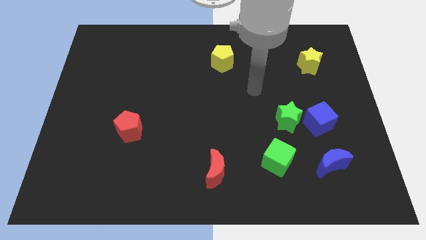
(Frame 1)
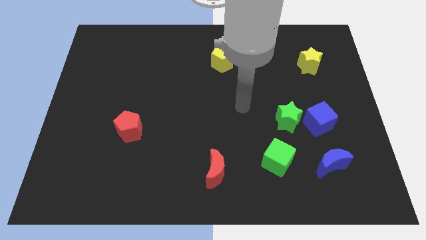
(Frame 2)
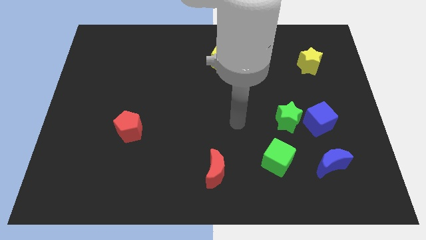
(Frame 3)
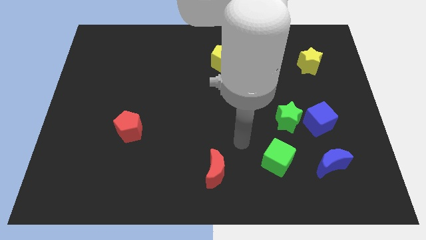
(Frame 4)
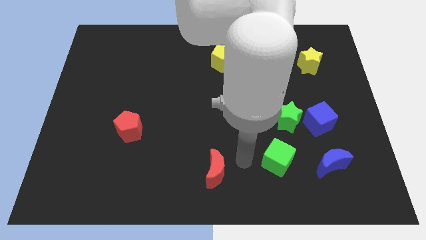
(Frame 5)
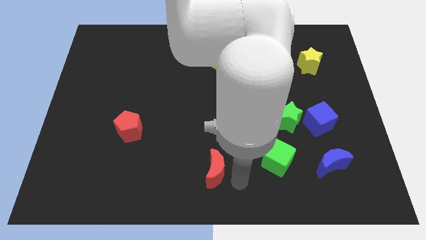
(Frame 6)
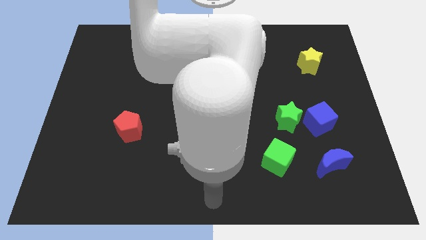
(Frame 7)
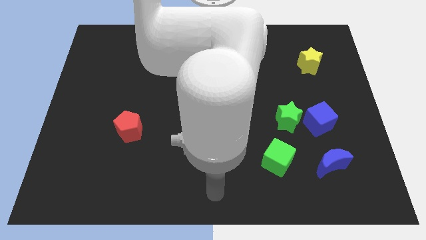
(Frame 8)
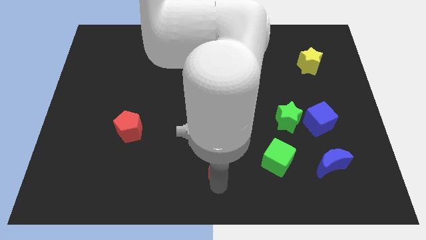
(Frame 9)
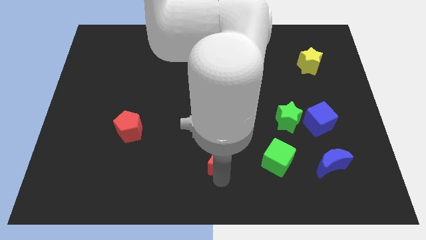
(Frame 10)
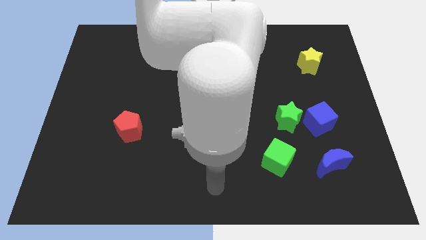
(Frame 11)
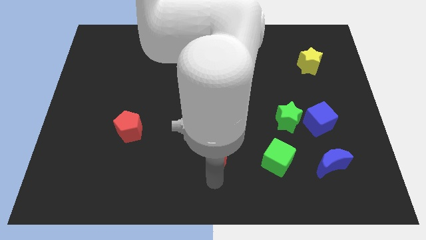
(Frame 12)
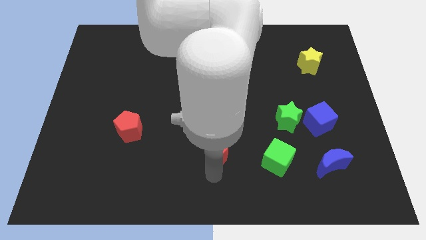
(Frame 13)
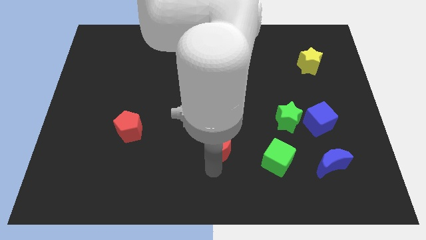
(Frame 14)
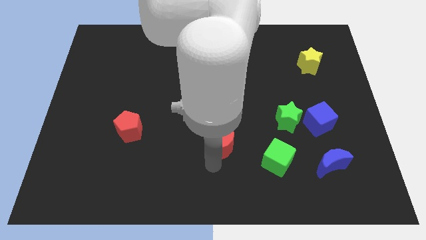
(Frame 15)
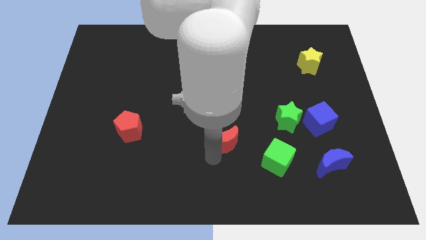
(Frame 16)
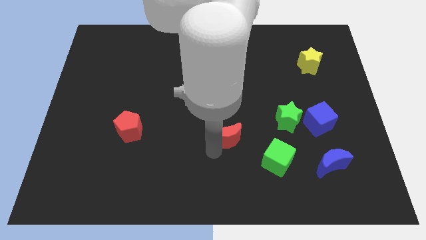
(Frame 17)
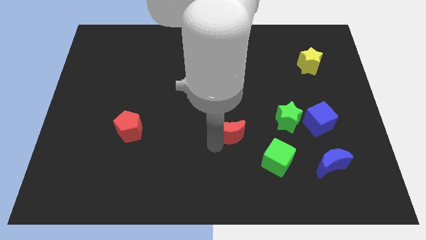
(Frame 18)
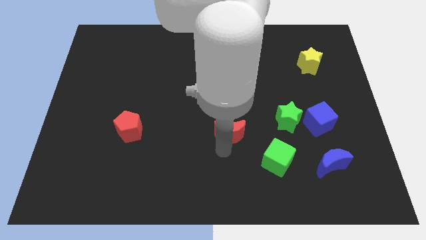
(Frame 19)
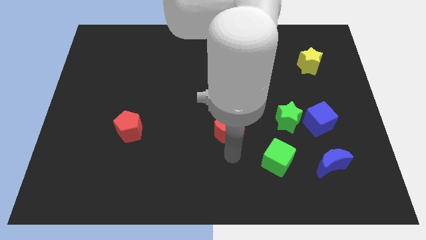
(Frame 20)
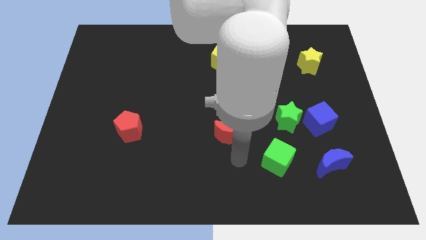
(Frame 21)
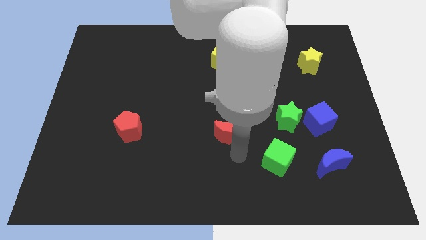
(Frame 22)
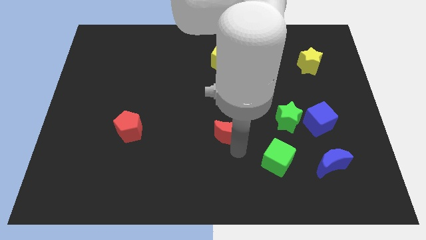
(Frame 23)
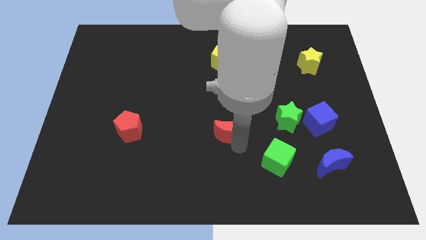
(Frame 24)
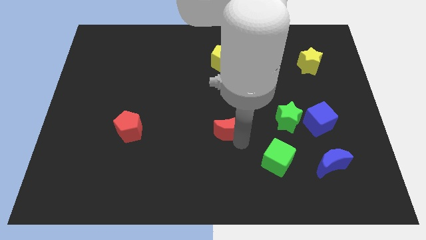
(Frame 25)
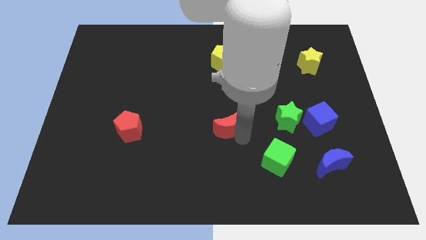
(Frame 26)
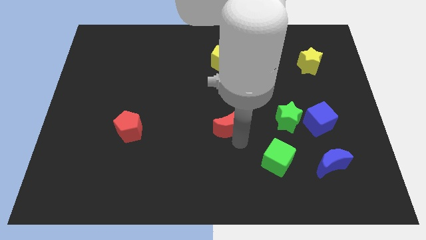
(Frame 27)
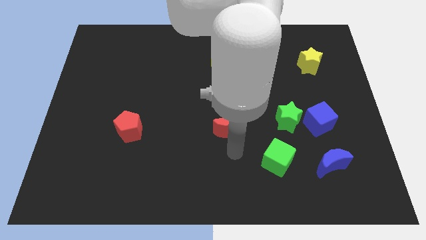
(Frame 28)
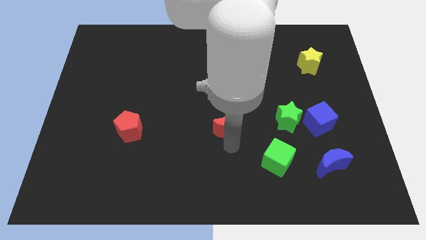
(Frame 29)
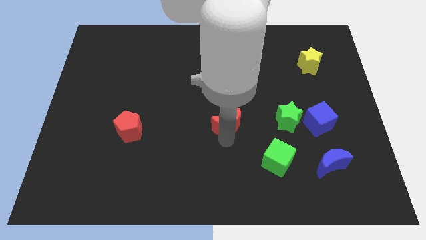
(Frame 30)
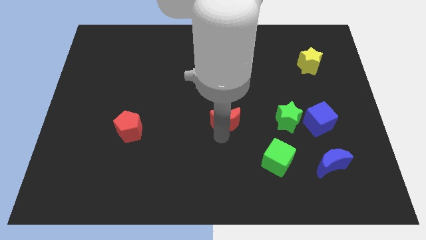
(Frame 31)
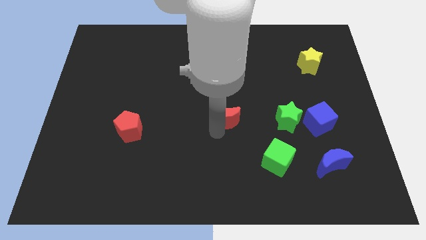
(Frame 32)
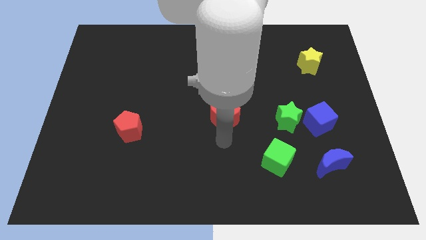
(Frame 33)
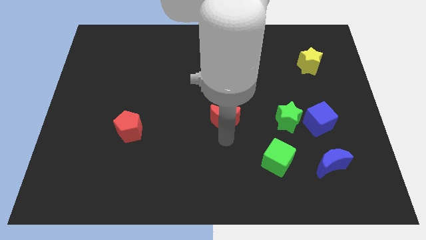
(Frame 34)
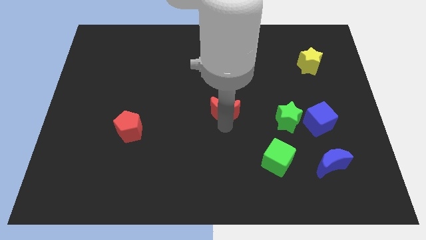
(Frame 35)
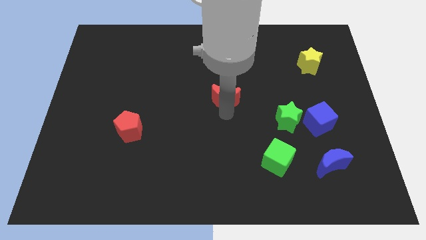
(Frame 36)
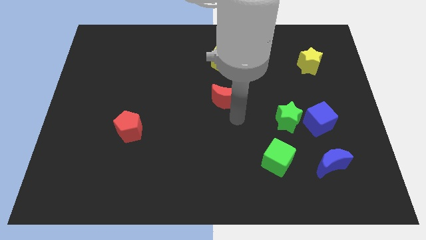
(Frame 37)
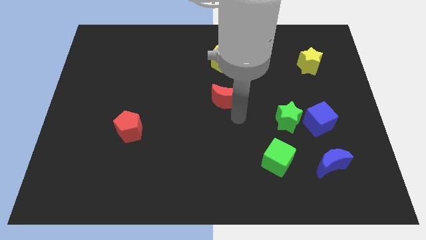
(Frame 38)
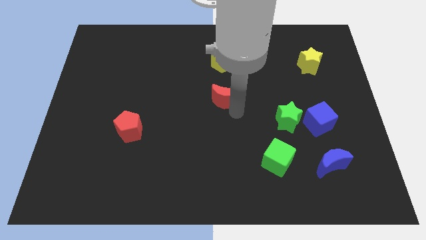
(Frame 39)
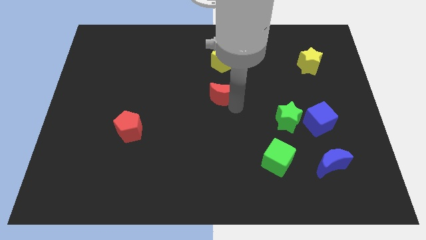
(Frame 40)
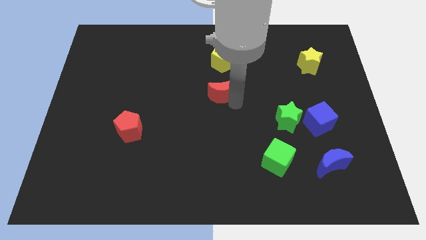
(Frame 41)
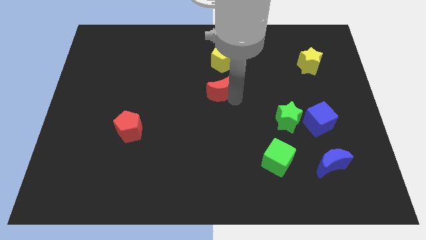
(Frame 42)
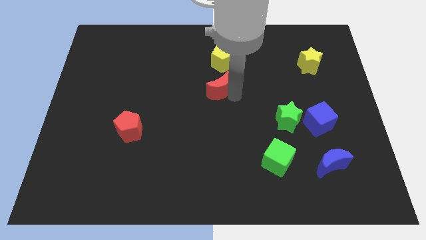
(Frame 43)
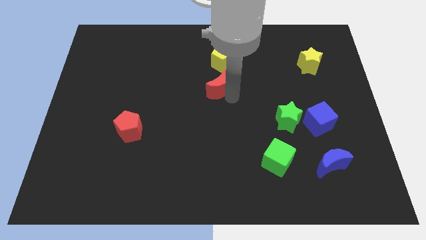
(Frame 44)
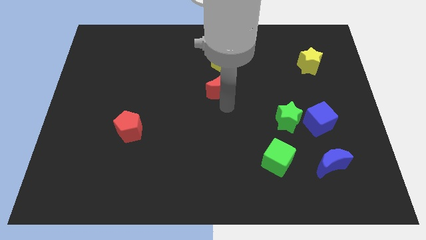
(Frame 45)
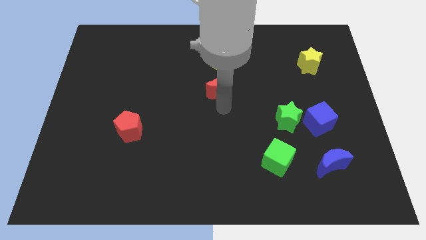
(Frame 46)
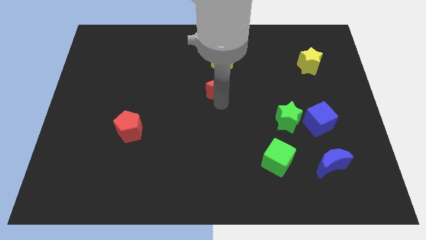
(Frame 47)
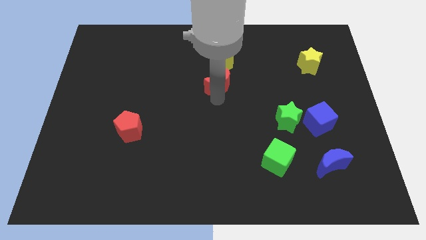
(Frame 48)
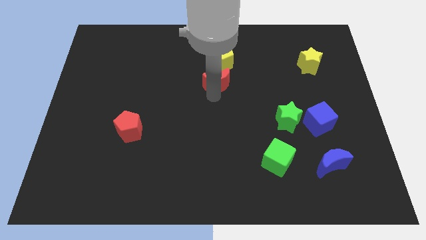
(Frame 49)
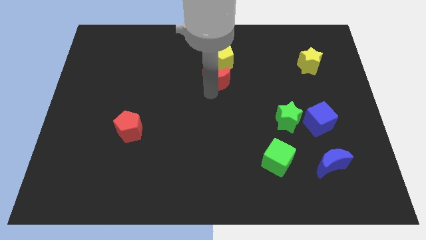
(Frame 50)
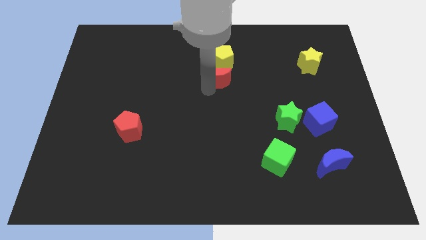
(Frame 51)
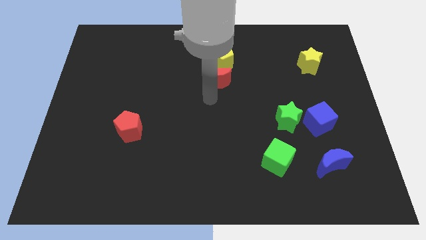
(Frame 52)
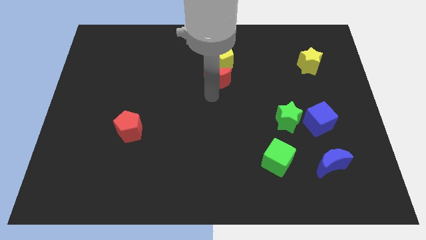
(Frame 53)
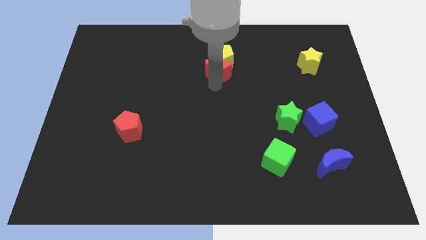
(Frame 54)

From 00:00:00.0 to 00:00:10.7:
move the red moon next to the yellow pentagon

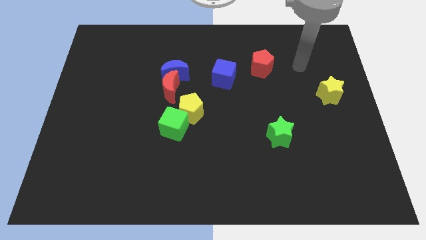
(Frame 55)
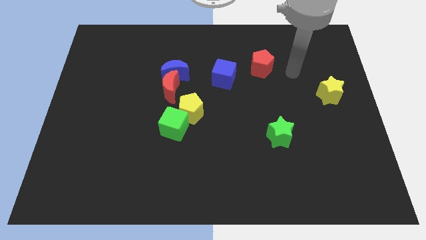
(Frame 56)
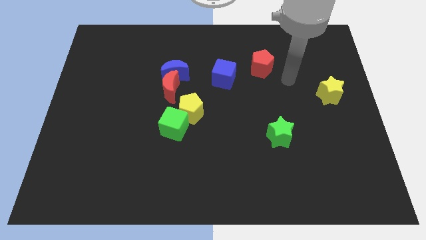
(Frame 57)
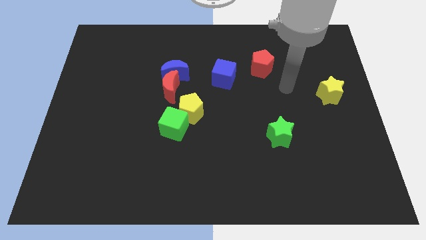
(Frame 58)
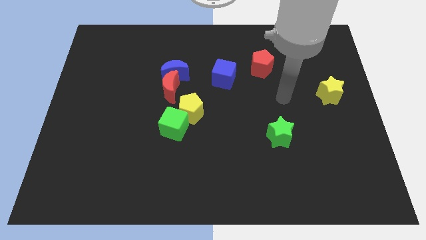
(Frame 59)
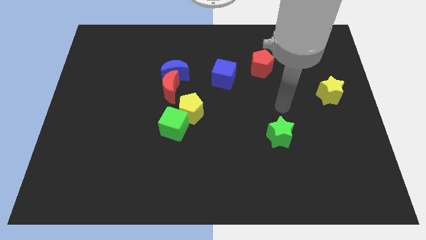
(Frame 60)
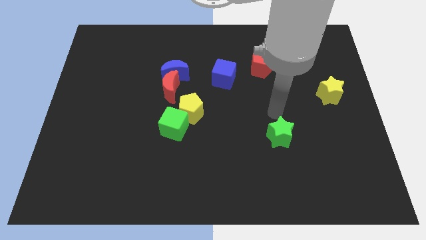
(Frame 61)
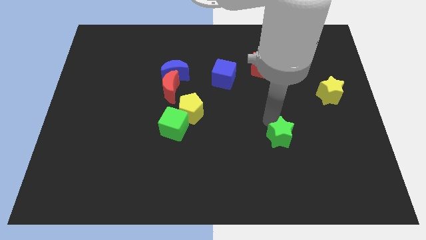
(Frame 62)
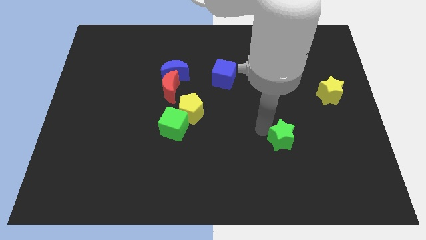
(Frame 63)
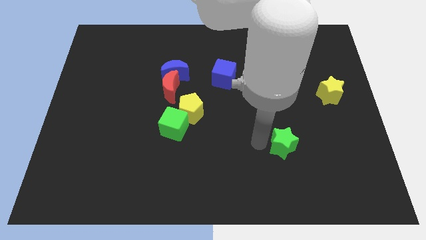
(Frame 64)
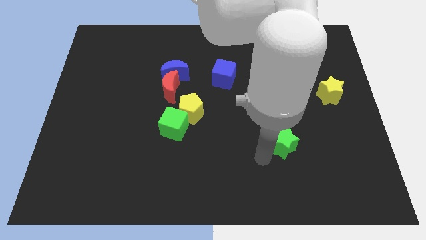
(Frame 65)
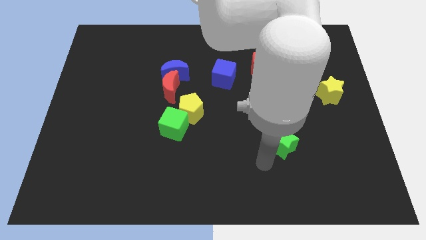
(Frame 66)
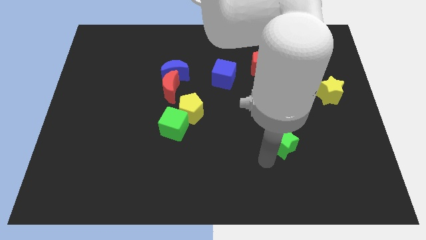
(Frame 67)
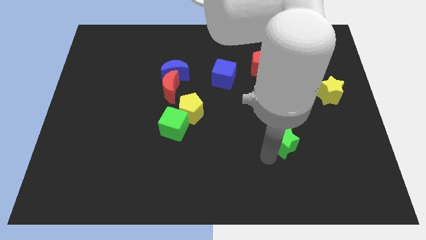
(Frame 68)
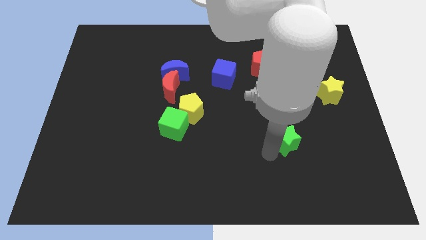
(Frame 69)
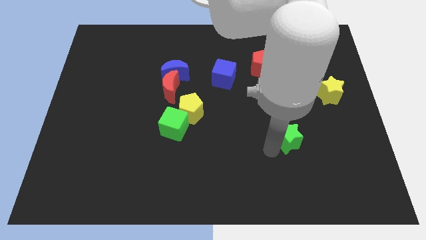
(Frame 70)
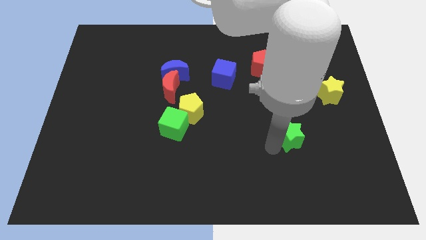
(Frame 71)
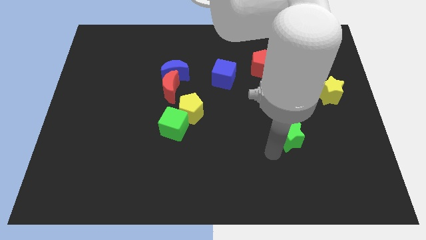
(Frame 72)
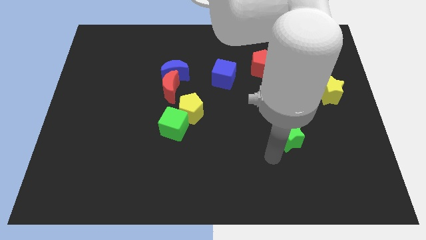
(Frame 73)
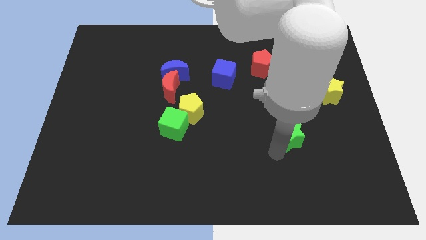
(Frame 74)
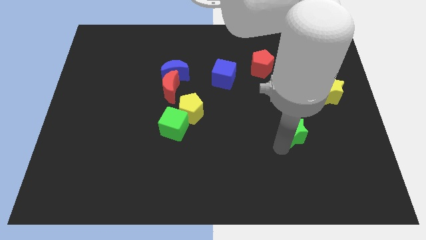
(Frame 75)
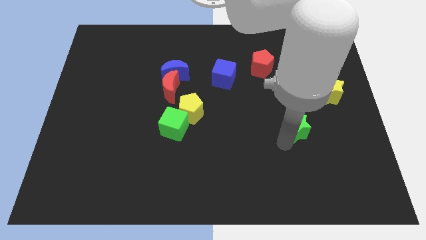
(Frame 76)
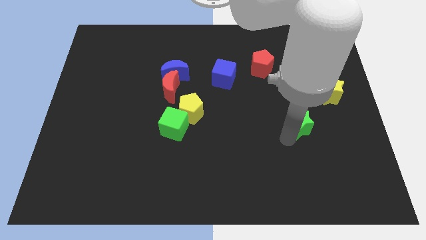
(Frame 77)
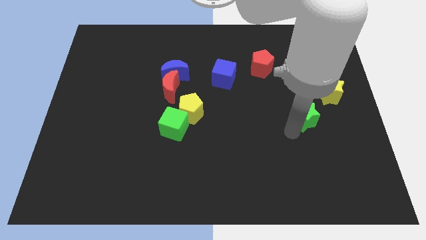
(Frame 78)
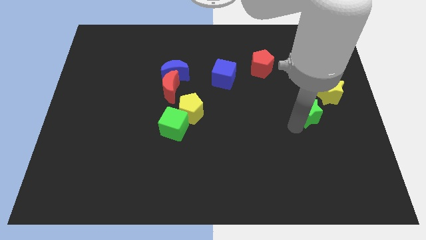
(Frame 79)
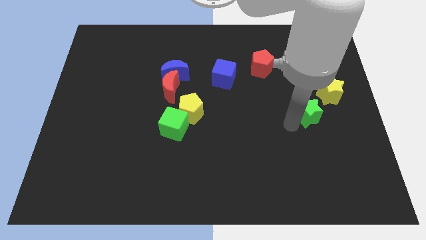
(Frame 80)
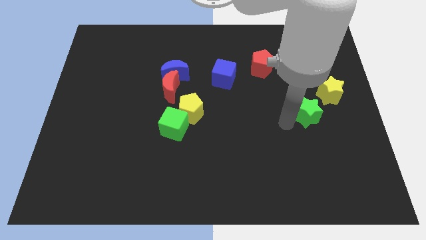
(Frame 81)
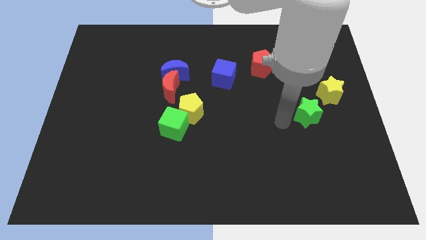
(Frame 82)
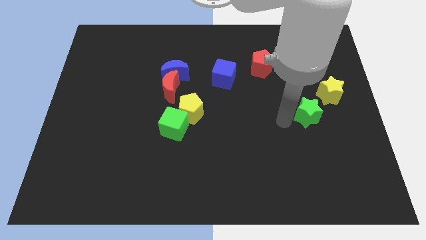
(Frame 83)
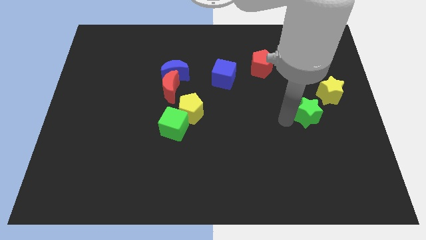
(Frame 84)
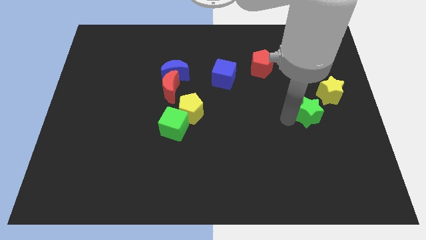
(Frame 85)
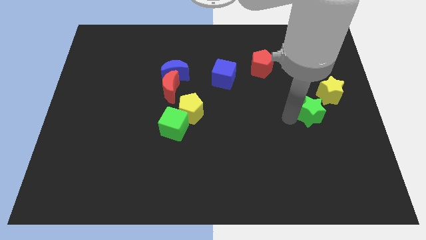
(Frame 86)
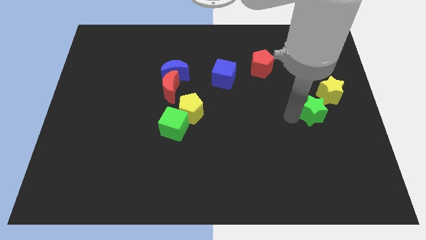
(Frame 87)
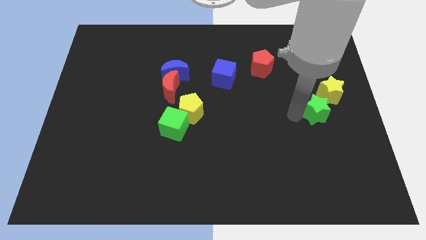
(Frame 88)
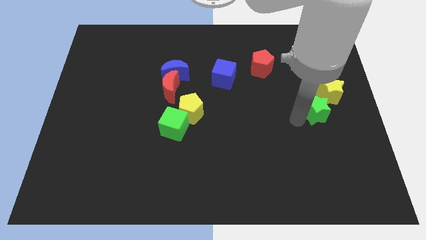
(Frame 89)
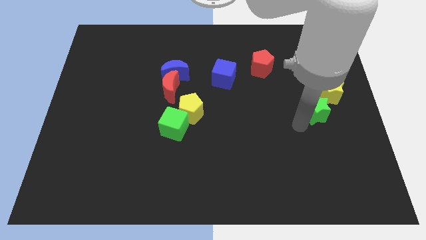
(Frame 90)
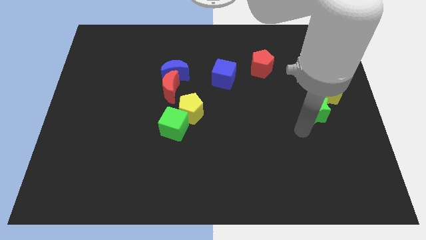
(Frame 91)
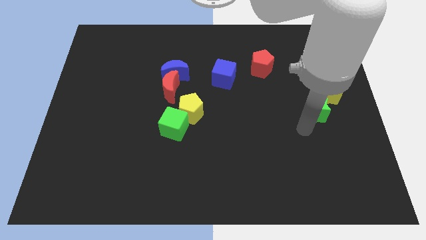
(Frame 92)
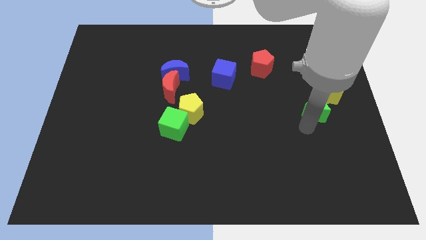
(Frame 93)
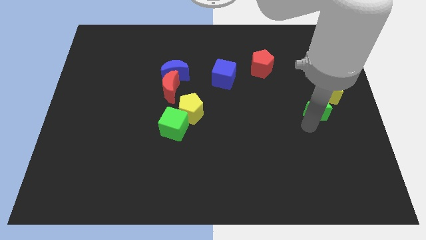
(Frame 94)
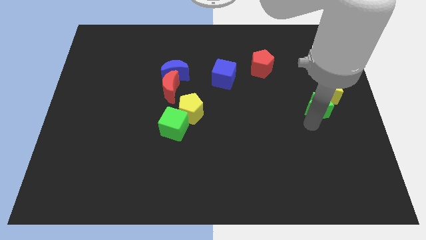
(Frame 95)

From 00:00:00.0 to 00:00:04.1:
put the green star next to the yellow star
